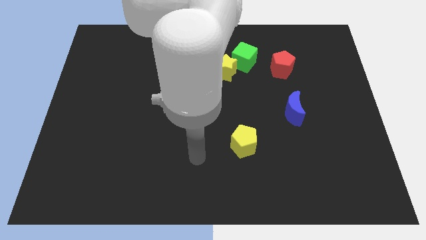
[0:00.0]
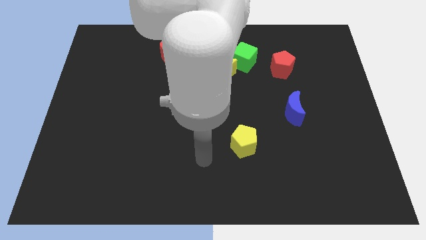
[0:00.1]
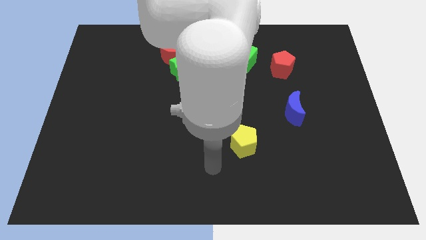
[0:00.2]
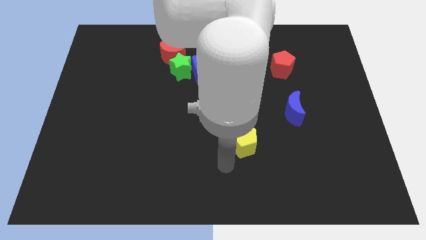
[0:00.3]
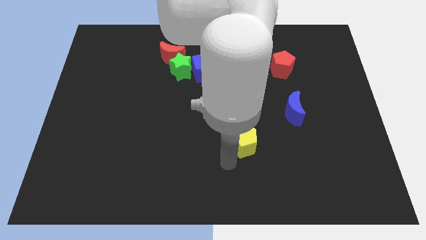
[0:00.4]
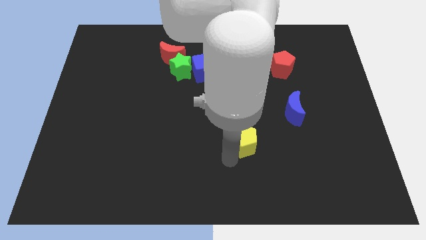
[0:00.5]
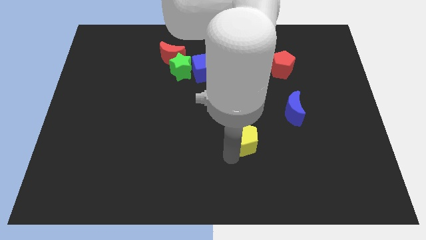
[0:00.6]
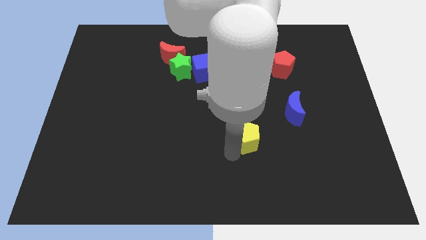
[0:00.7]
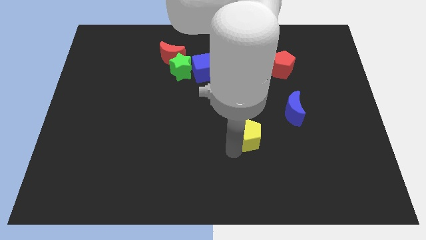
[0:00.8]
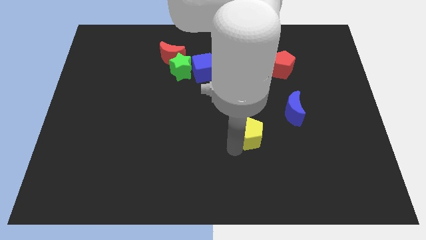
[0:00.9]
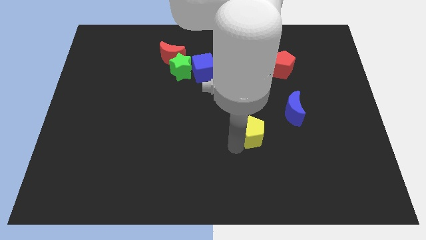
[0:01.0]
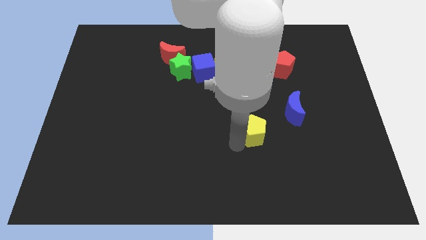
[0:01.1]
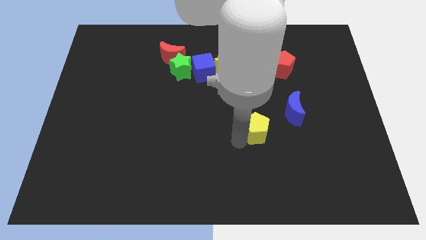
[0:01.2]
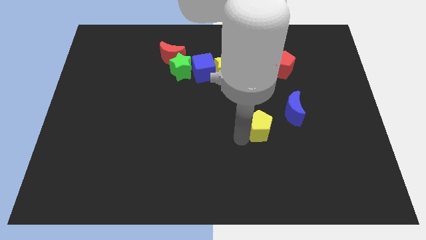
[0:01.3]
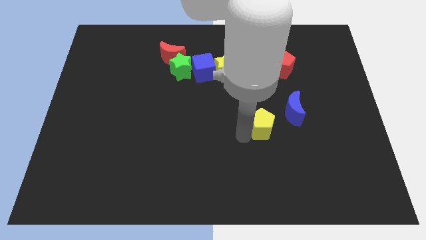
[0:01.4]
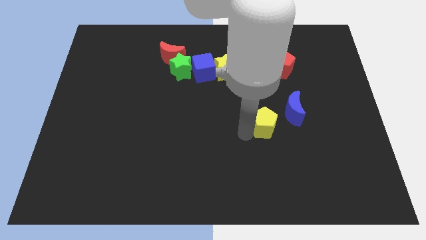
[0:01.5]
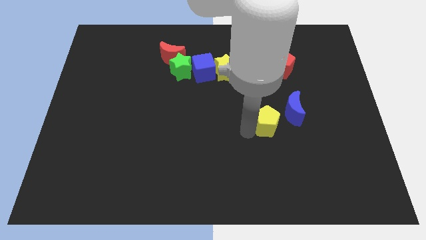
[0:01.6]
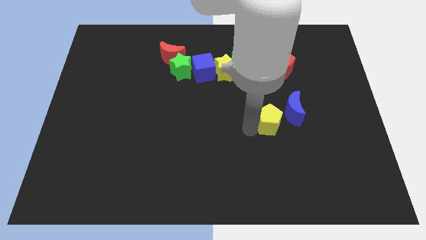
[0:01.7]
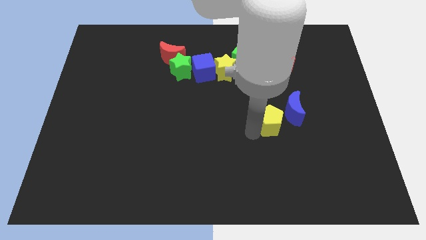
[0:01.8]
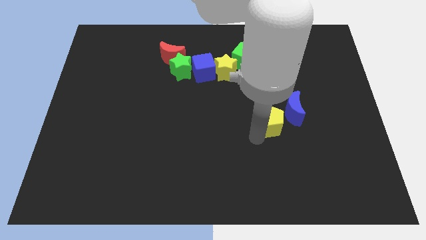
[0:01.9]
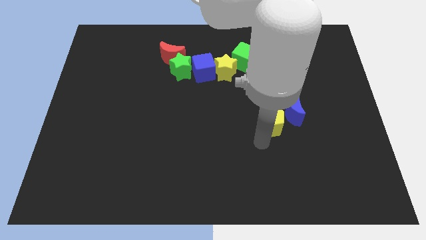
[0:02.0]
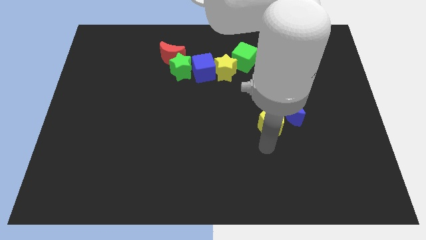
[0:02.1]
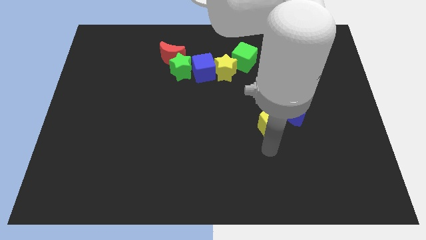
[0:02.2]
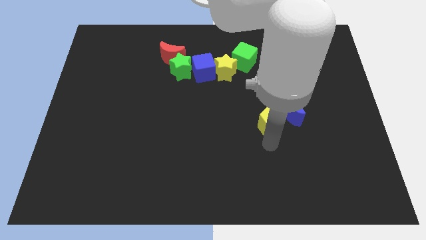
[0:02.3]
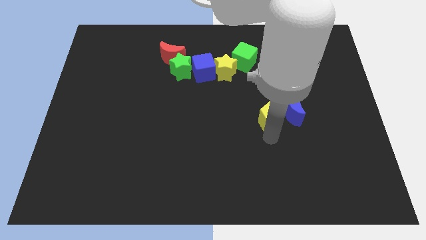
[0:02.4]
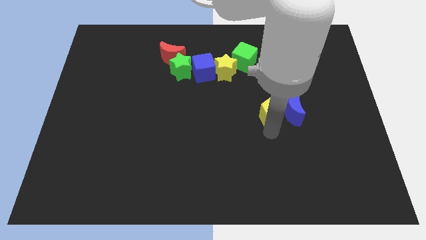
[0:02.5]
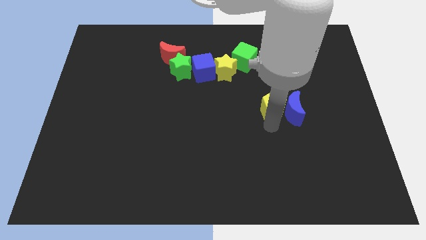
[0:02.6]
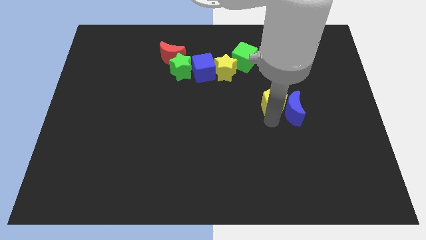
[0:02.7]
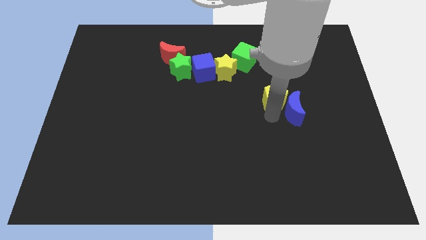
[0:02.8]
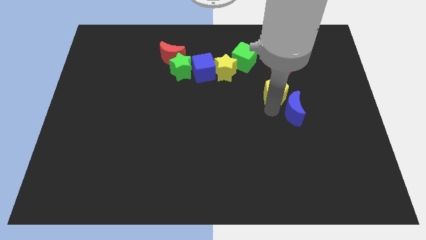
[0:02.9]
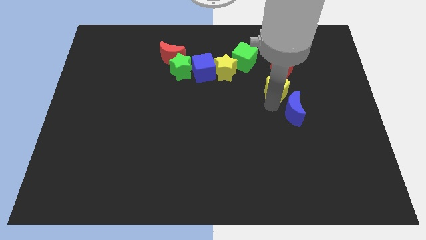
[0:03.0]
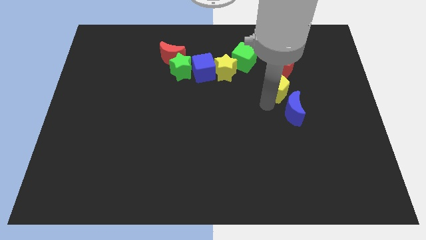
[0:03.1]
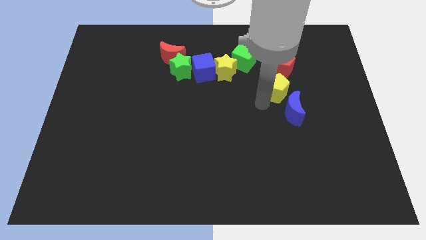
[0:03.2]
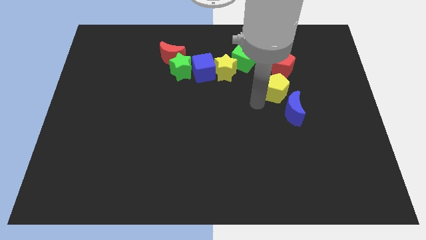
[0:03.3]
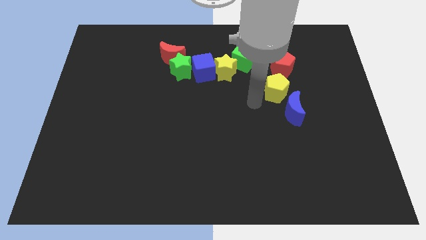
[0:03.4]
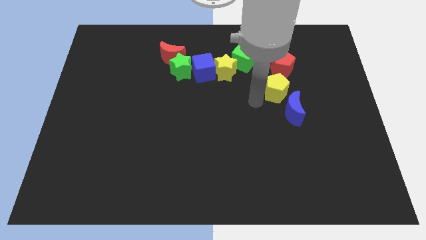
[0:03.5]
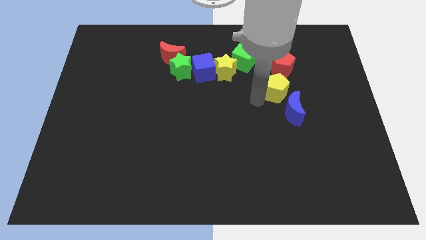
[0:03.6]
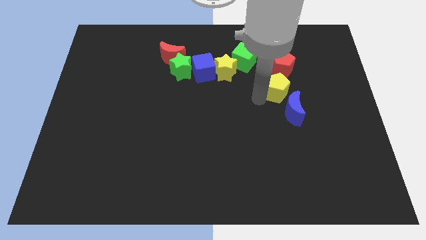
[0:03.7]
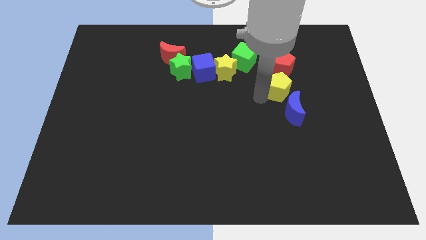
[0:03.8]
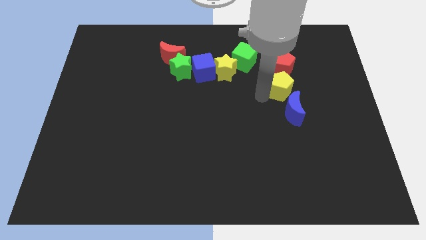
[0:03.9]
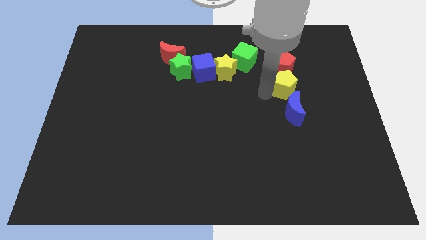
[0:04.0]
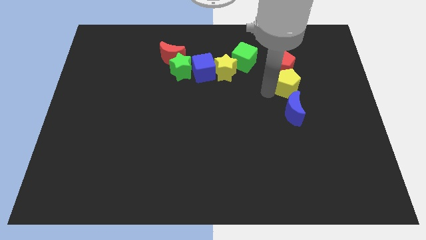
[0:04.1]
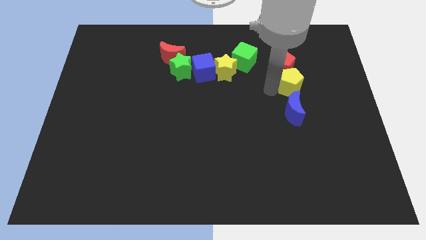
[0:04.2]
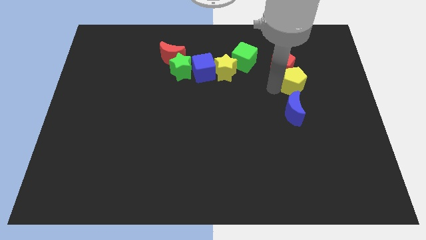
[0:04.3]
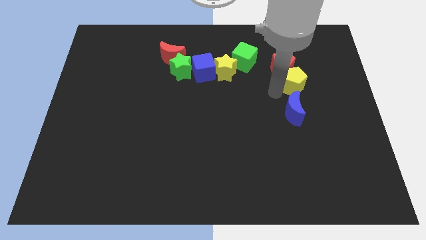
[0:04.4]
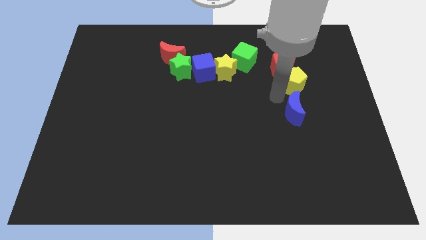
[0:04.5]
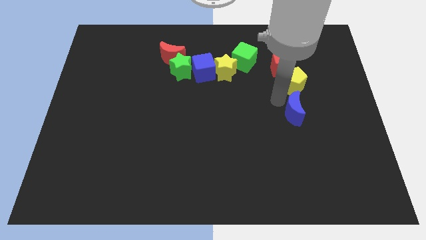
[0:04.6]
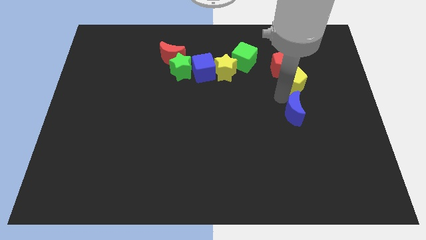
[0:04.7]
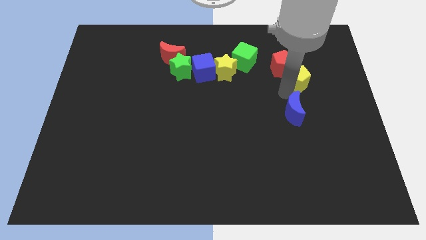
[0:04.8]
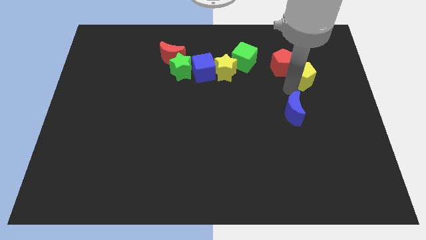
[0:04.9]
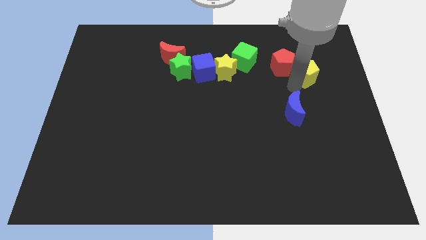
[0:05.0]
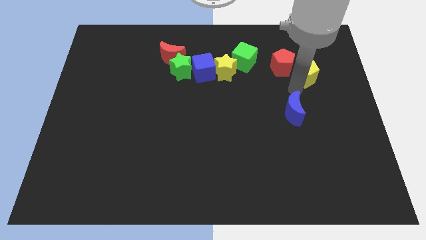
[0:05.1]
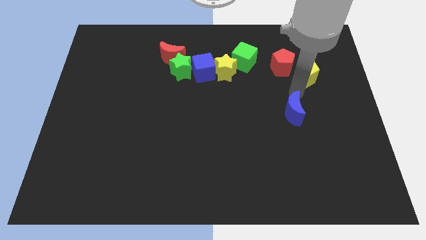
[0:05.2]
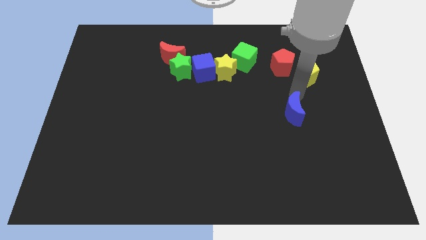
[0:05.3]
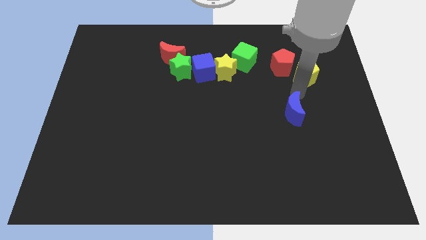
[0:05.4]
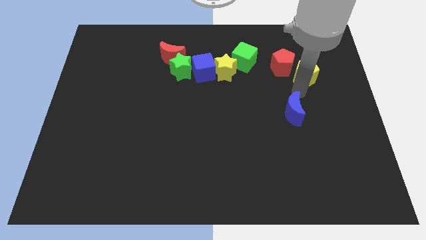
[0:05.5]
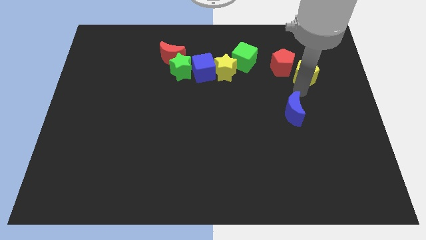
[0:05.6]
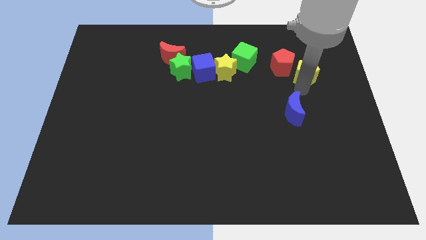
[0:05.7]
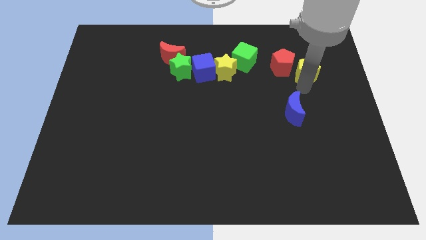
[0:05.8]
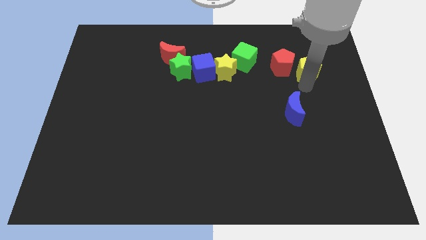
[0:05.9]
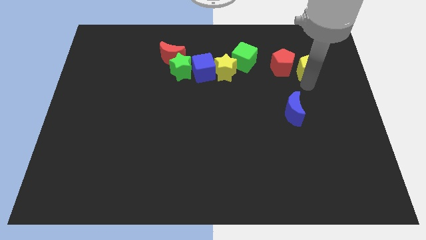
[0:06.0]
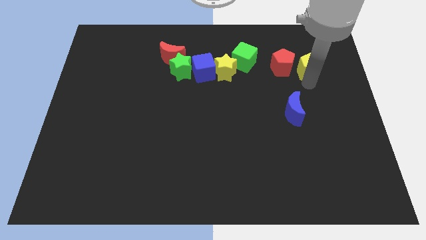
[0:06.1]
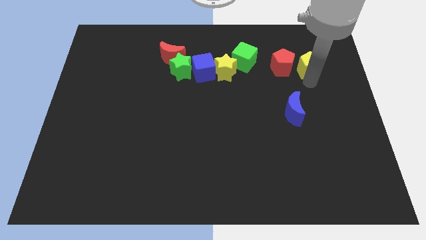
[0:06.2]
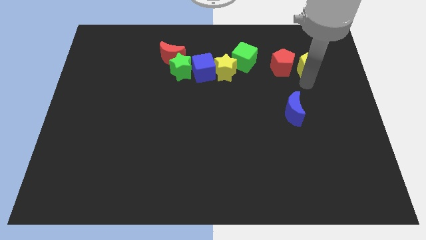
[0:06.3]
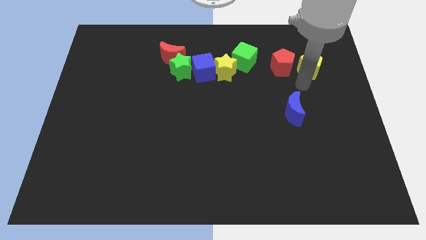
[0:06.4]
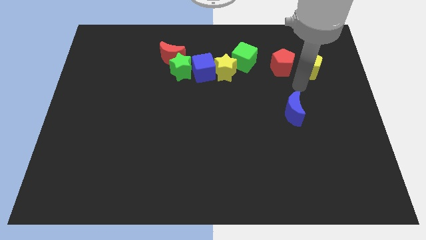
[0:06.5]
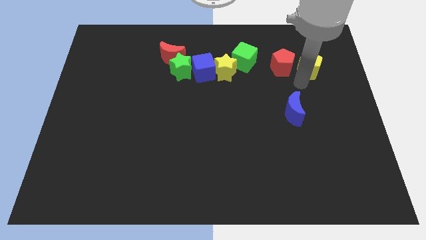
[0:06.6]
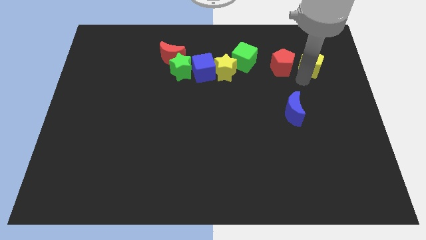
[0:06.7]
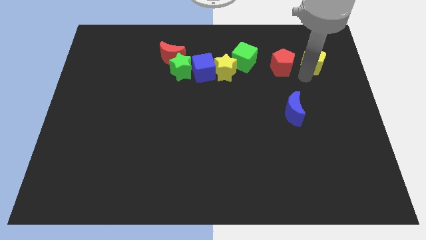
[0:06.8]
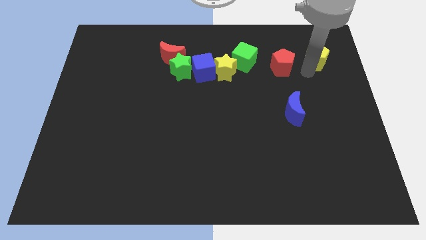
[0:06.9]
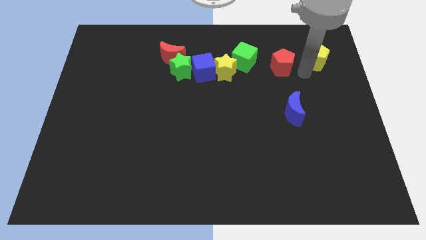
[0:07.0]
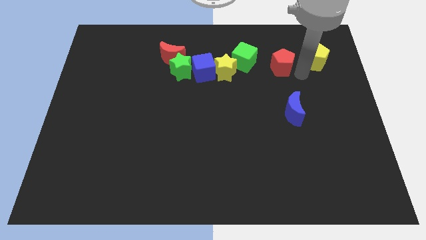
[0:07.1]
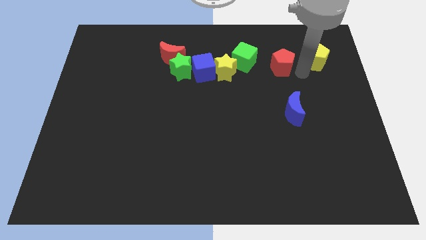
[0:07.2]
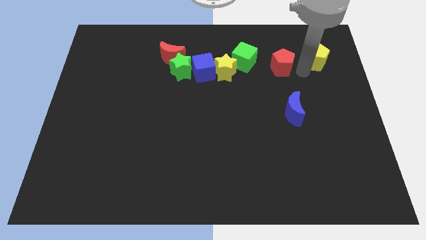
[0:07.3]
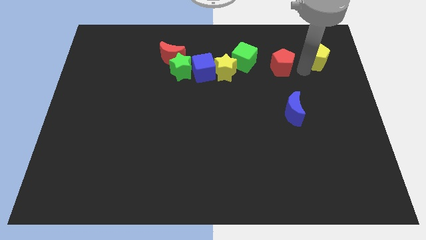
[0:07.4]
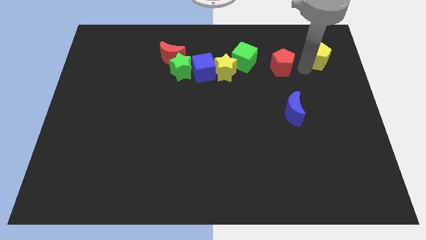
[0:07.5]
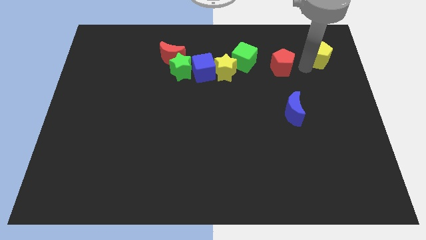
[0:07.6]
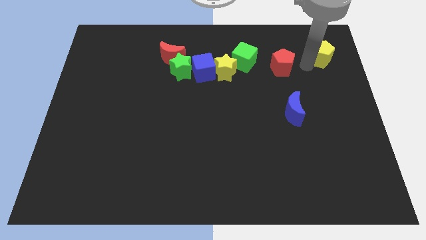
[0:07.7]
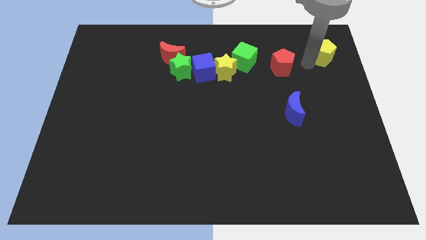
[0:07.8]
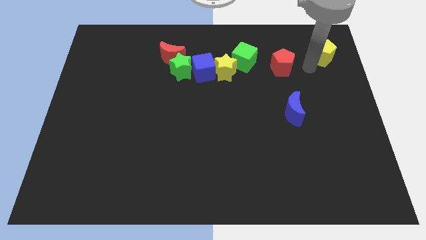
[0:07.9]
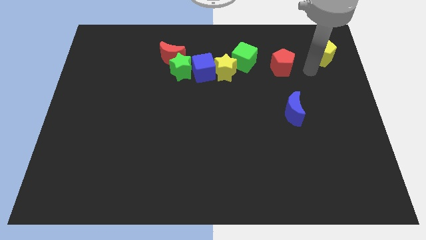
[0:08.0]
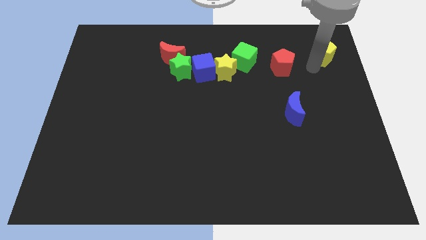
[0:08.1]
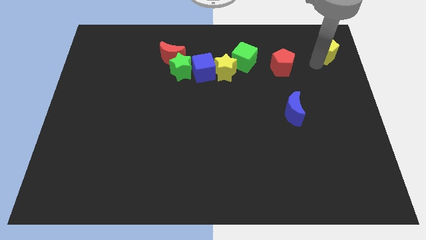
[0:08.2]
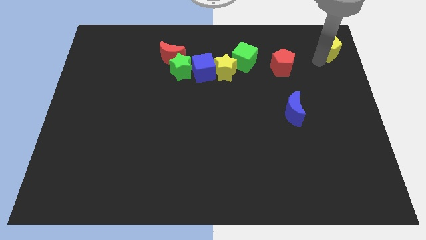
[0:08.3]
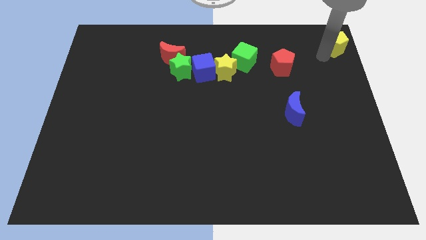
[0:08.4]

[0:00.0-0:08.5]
put the yellow pentagon to the top right corner
